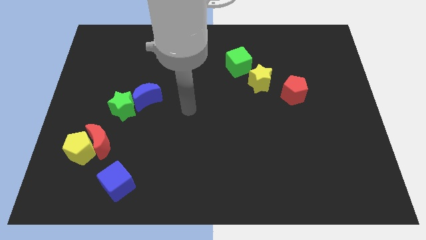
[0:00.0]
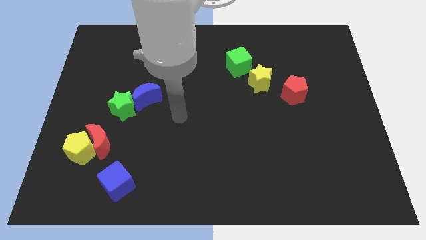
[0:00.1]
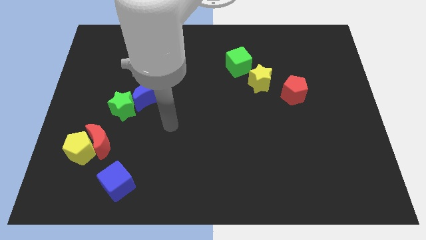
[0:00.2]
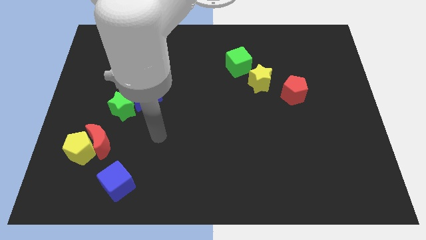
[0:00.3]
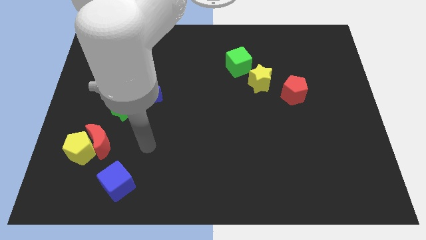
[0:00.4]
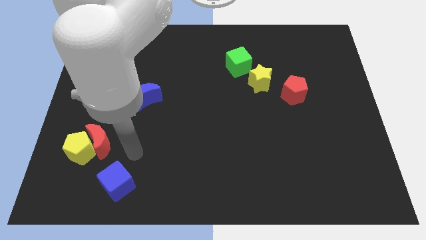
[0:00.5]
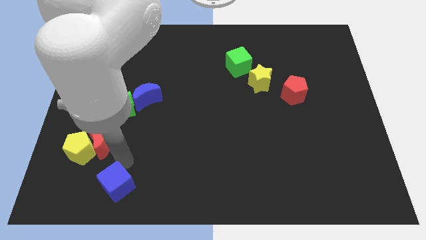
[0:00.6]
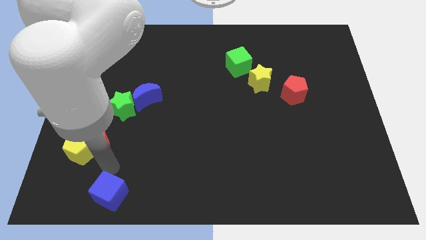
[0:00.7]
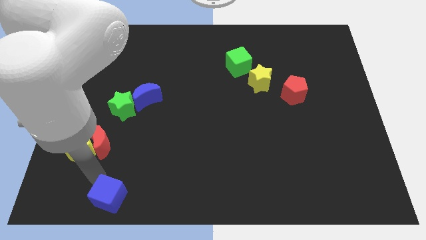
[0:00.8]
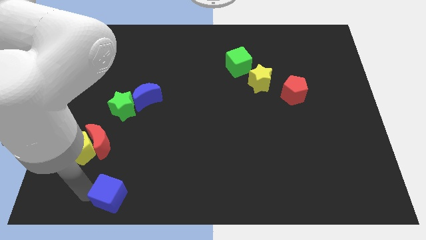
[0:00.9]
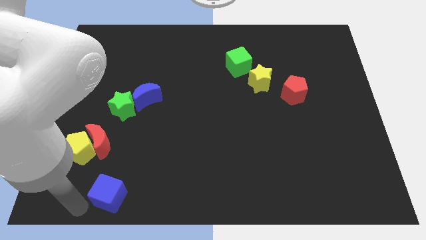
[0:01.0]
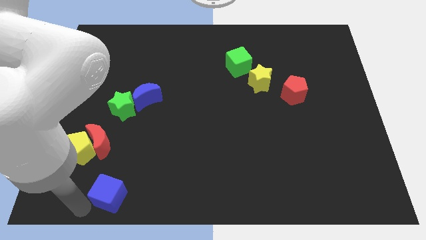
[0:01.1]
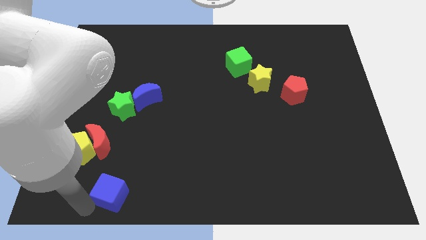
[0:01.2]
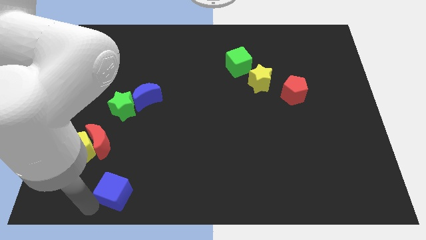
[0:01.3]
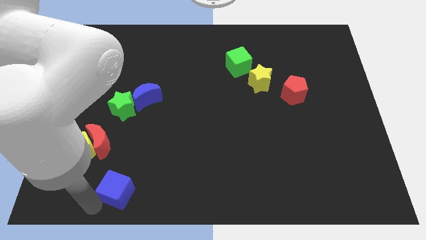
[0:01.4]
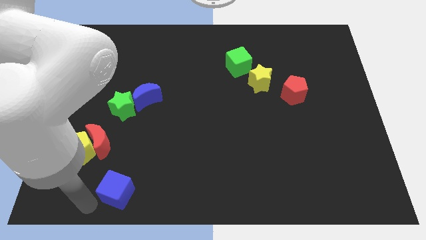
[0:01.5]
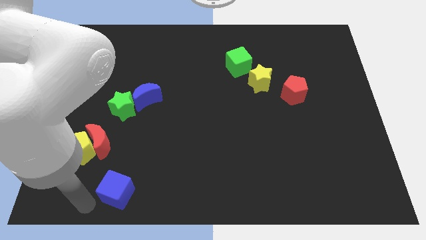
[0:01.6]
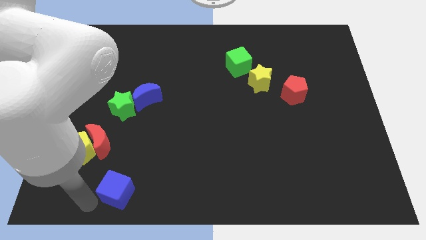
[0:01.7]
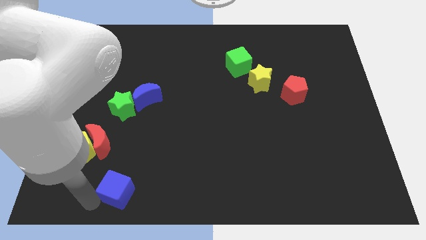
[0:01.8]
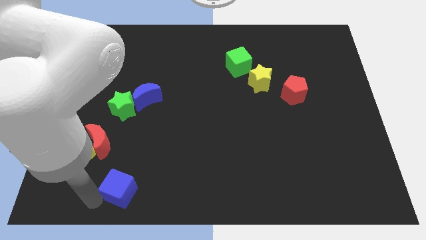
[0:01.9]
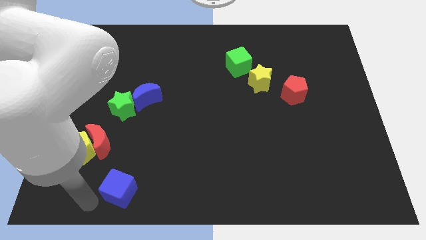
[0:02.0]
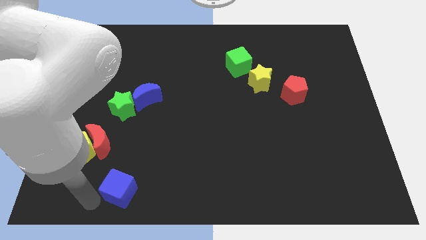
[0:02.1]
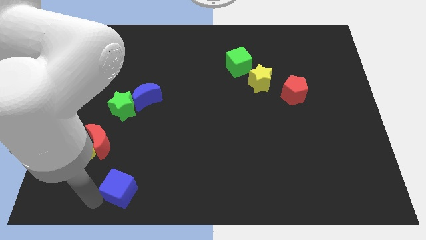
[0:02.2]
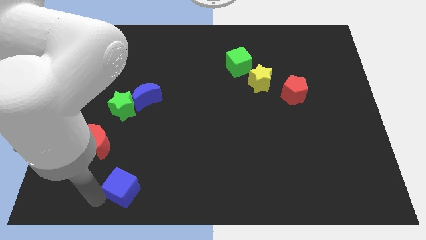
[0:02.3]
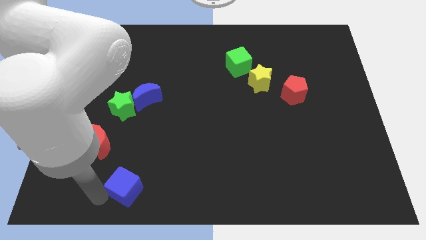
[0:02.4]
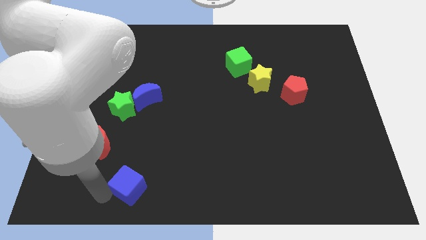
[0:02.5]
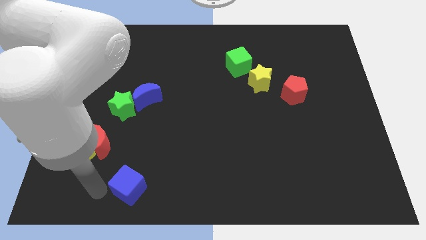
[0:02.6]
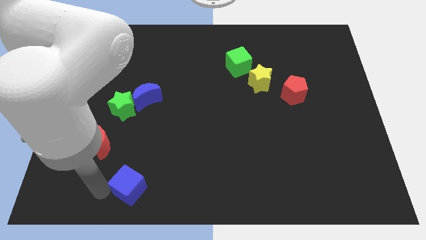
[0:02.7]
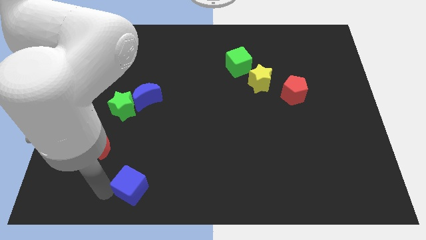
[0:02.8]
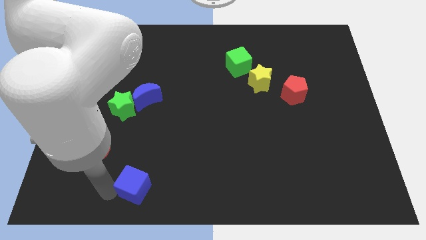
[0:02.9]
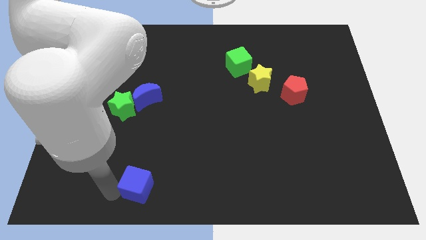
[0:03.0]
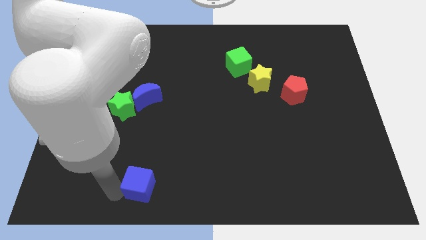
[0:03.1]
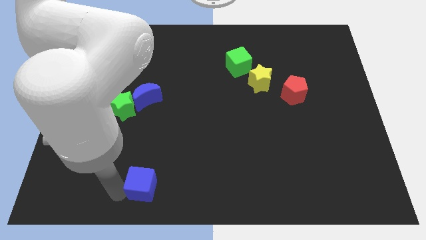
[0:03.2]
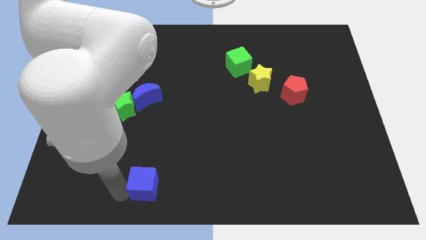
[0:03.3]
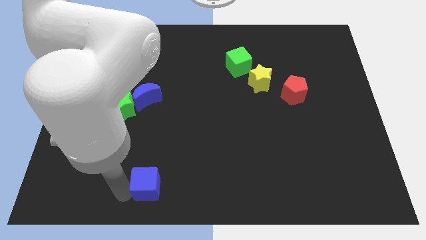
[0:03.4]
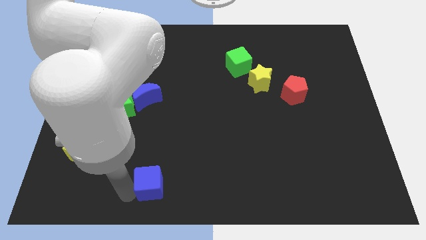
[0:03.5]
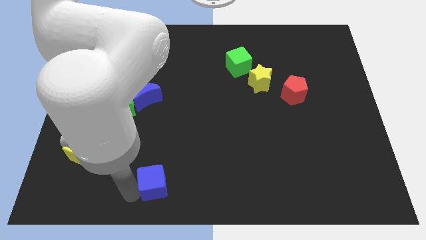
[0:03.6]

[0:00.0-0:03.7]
push the blue cube right a bit

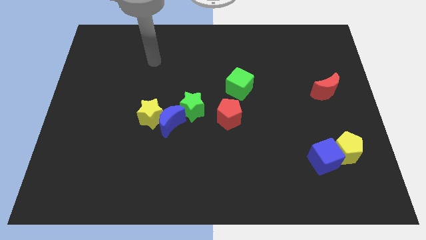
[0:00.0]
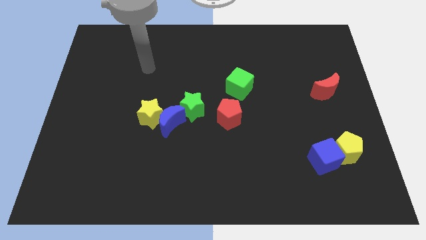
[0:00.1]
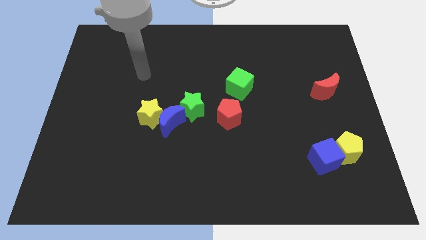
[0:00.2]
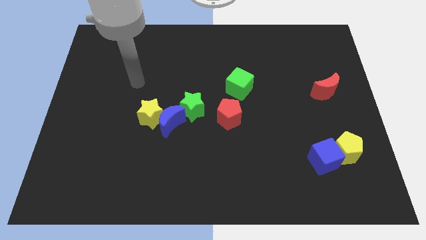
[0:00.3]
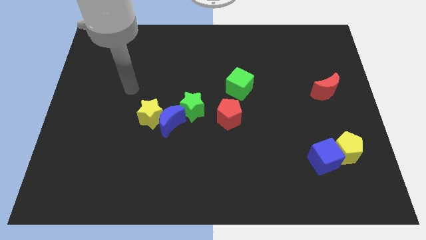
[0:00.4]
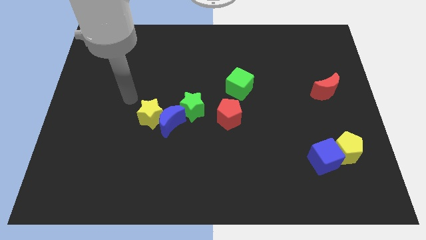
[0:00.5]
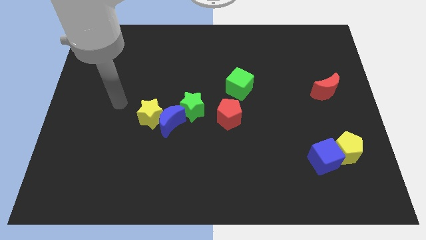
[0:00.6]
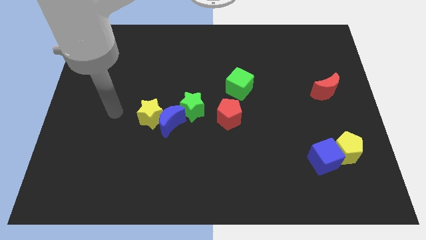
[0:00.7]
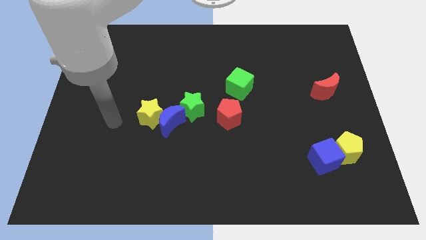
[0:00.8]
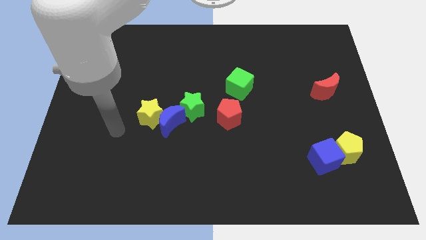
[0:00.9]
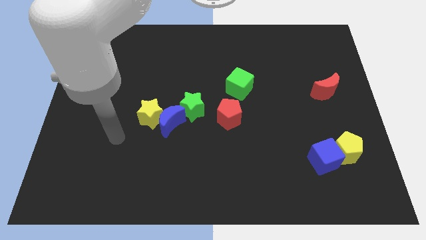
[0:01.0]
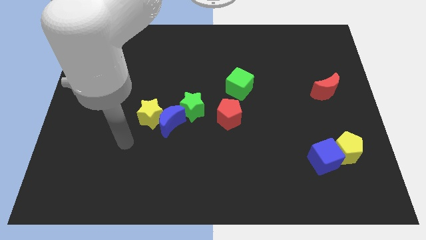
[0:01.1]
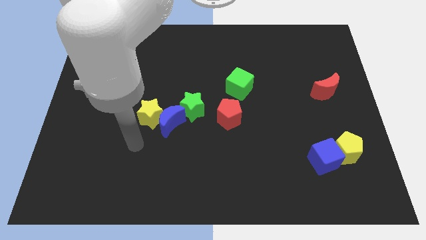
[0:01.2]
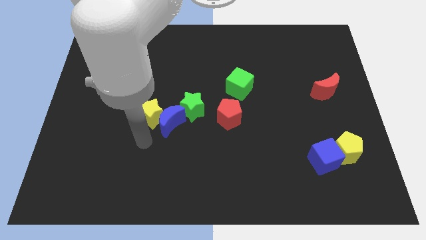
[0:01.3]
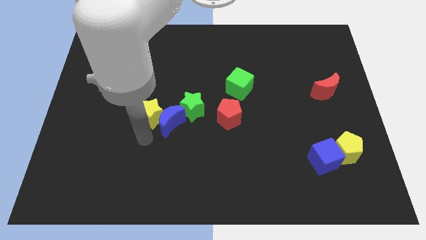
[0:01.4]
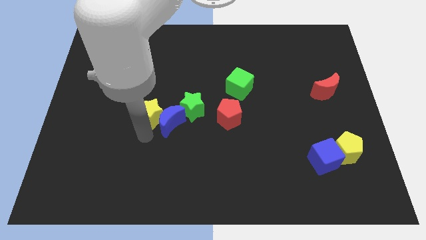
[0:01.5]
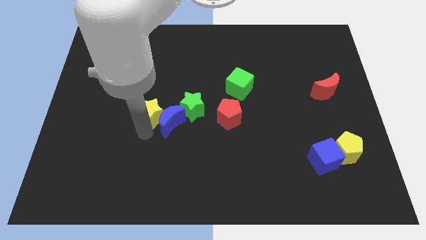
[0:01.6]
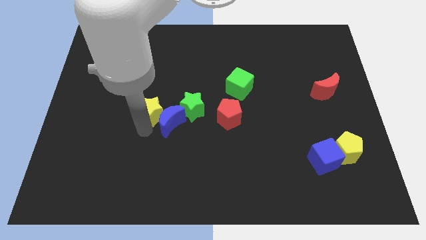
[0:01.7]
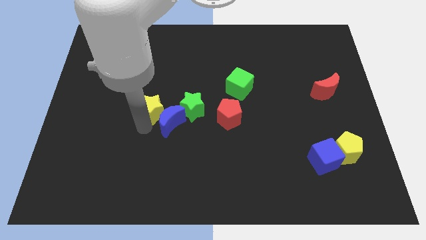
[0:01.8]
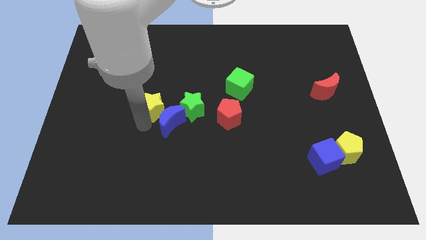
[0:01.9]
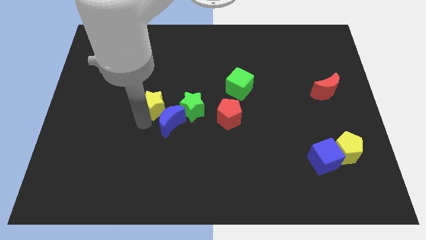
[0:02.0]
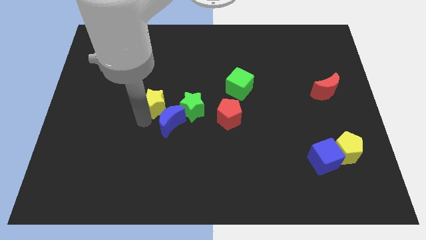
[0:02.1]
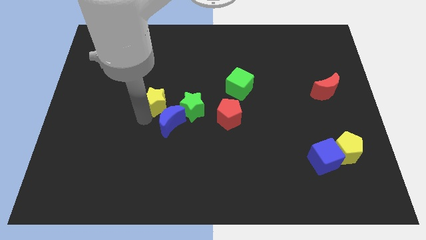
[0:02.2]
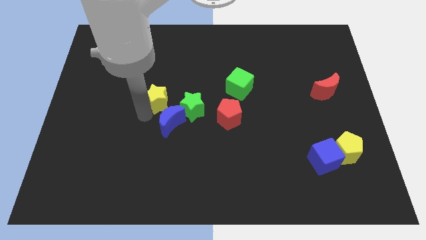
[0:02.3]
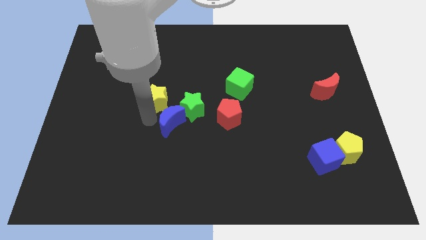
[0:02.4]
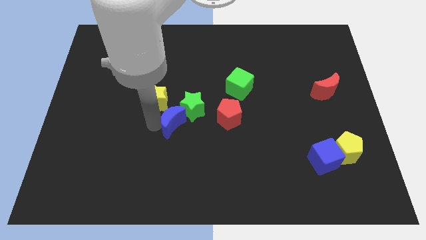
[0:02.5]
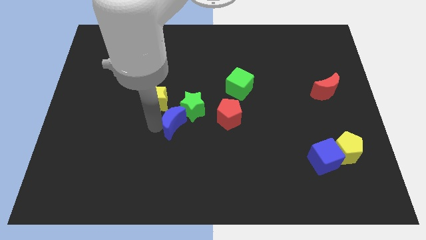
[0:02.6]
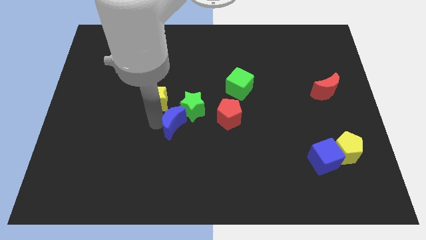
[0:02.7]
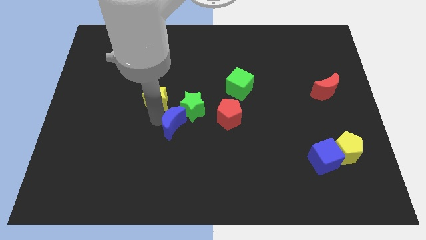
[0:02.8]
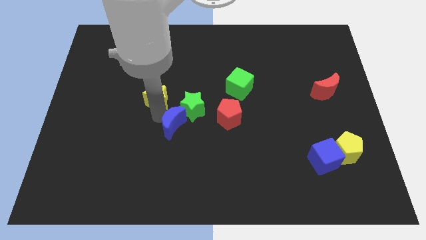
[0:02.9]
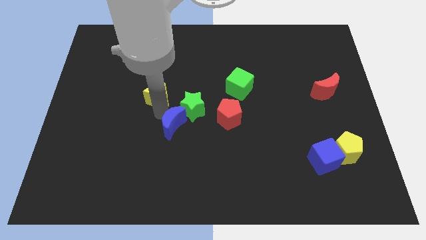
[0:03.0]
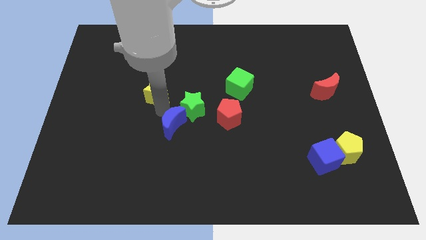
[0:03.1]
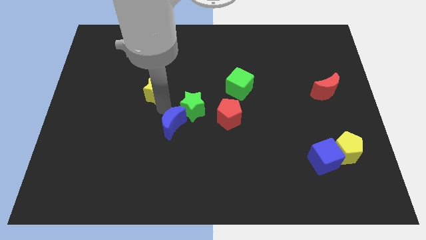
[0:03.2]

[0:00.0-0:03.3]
slightly slide the yellow star upwards

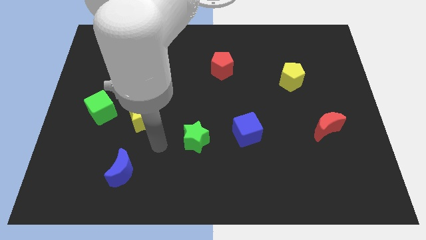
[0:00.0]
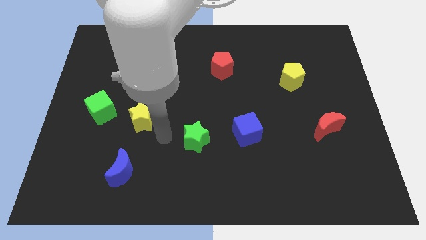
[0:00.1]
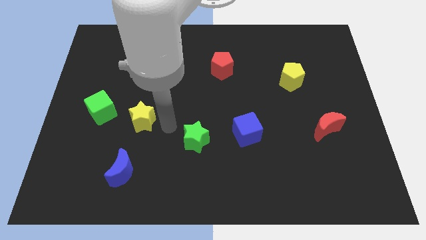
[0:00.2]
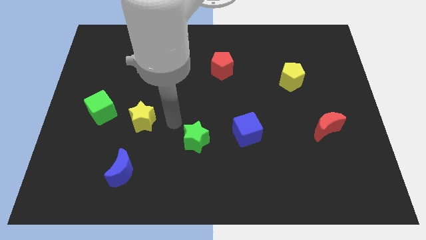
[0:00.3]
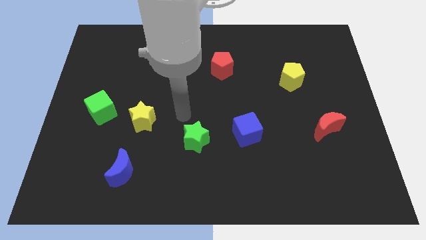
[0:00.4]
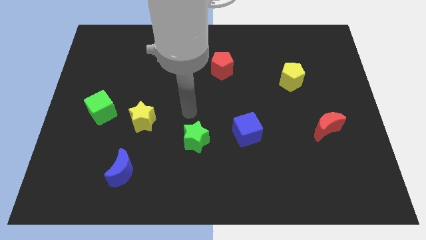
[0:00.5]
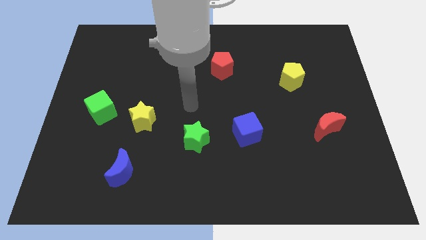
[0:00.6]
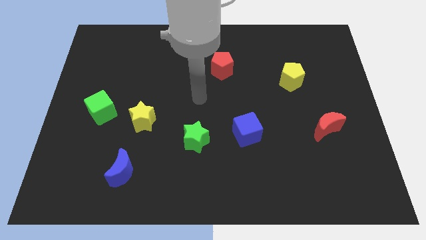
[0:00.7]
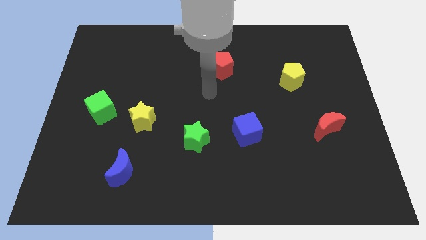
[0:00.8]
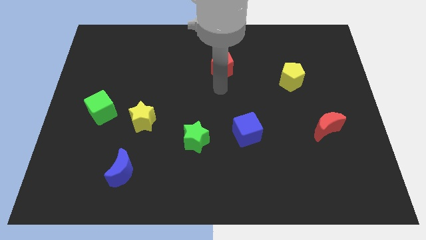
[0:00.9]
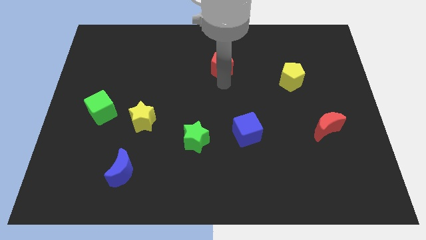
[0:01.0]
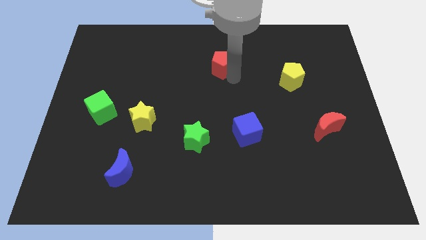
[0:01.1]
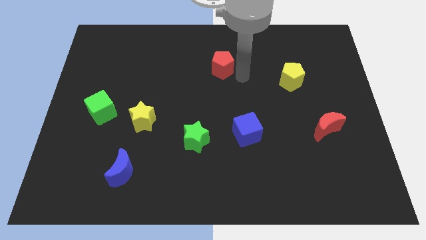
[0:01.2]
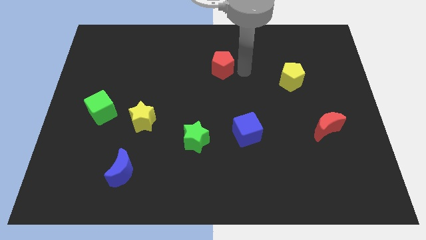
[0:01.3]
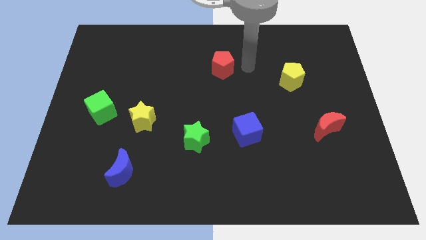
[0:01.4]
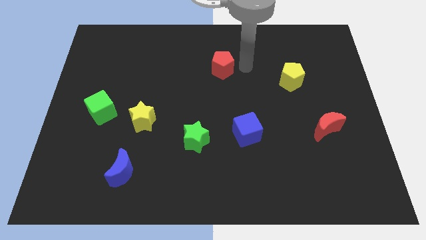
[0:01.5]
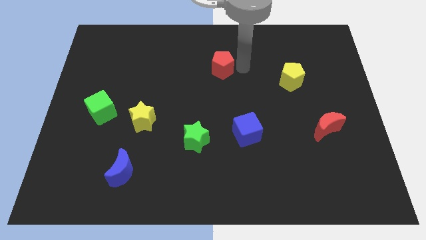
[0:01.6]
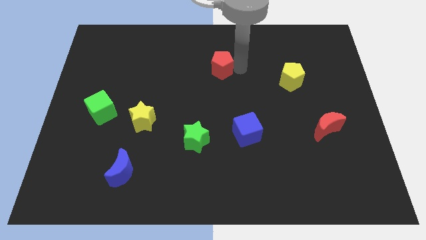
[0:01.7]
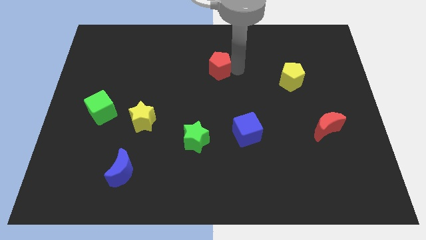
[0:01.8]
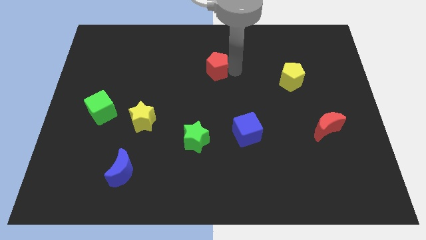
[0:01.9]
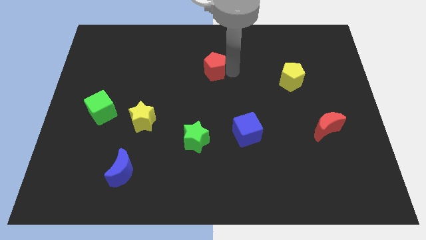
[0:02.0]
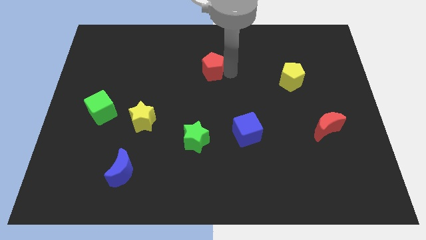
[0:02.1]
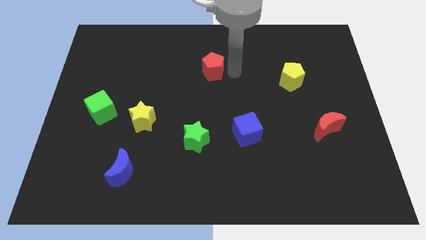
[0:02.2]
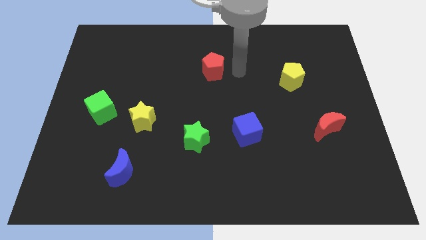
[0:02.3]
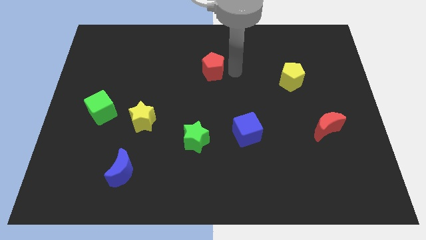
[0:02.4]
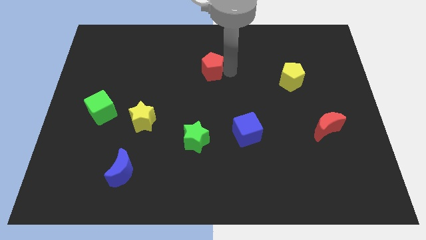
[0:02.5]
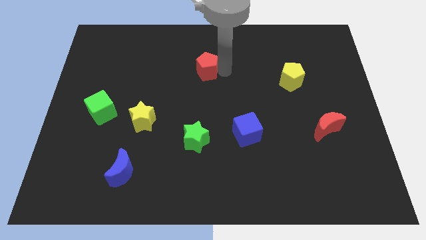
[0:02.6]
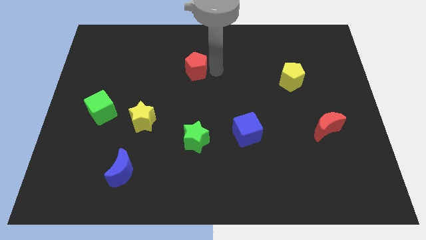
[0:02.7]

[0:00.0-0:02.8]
push the red pentagon a little left
